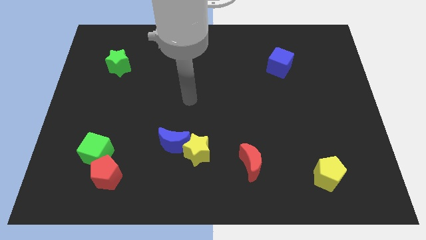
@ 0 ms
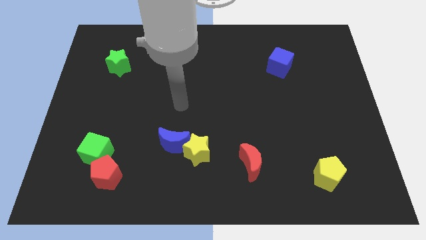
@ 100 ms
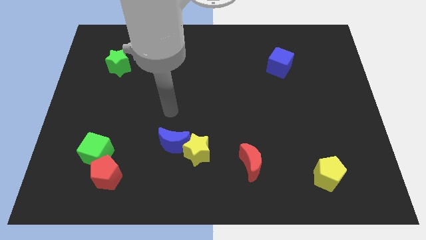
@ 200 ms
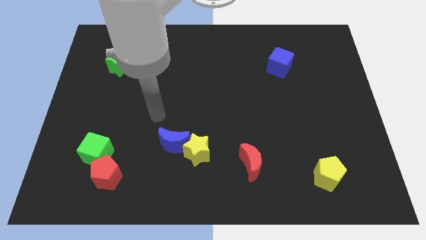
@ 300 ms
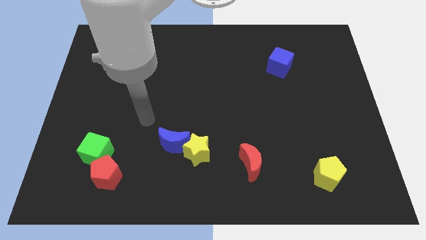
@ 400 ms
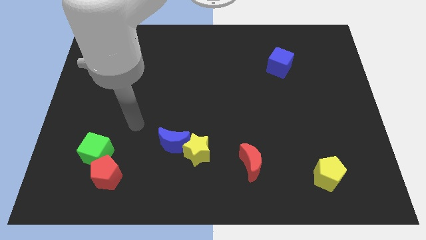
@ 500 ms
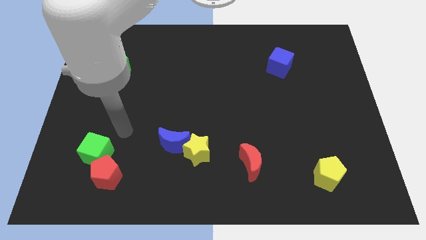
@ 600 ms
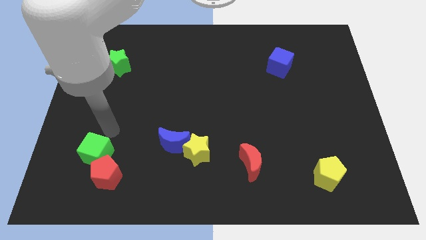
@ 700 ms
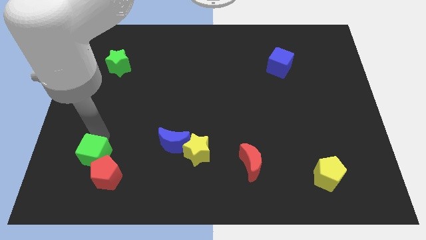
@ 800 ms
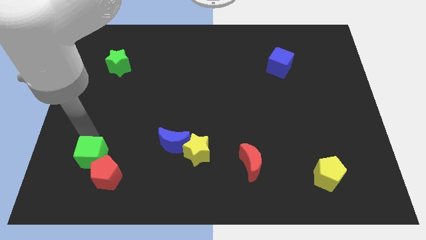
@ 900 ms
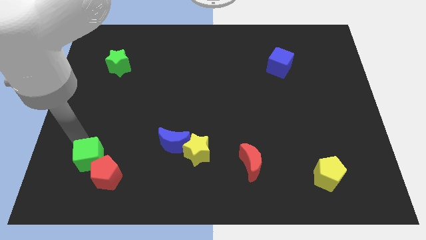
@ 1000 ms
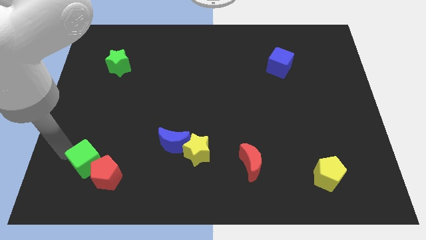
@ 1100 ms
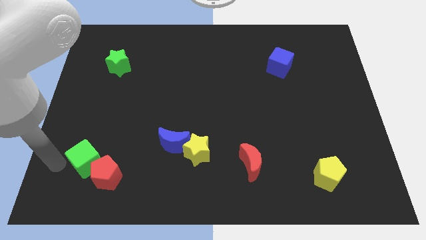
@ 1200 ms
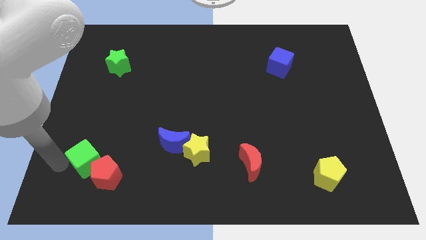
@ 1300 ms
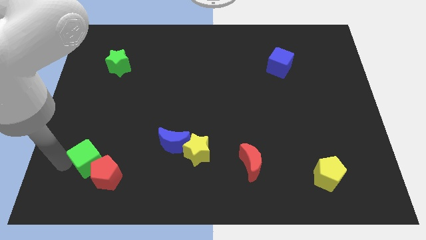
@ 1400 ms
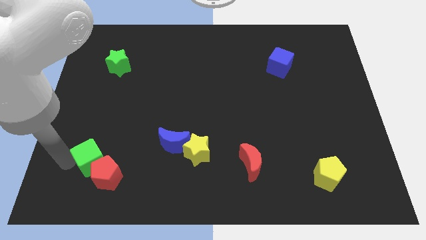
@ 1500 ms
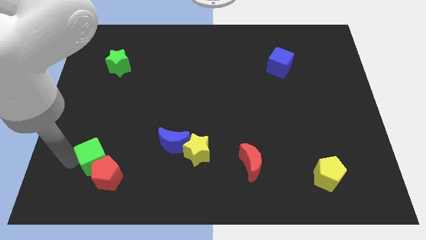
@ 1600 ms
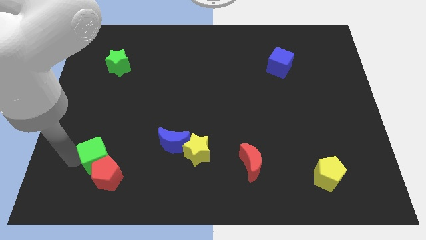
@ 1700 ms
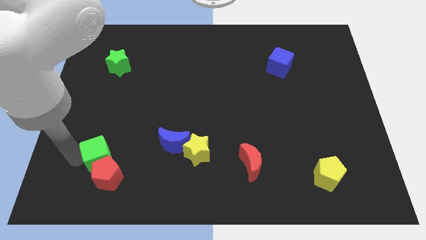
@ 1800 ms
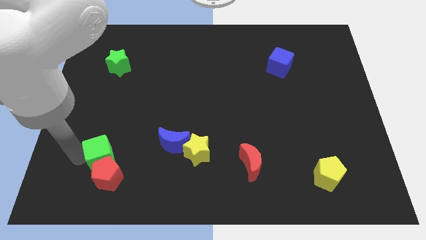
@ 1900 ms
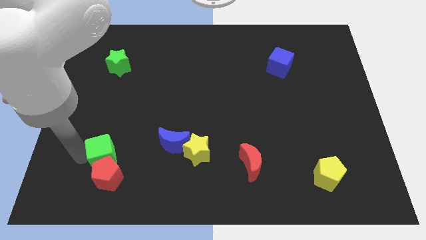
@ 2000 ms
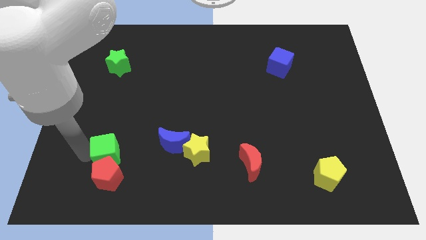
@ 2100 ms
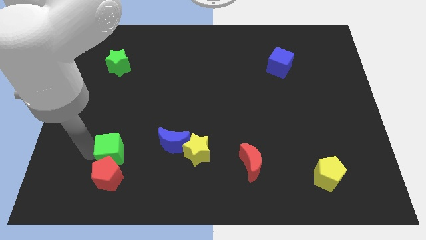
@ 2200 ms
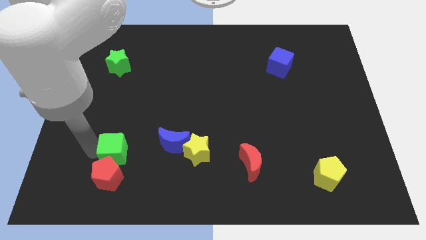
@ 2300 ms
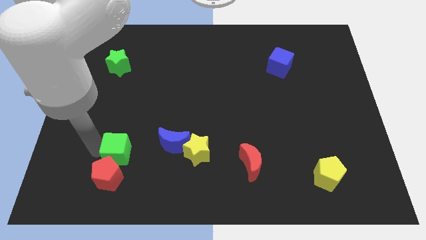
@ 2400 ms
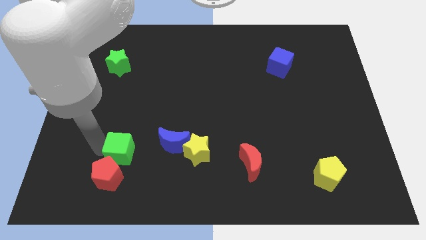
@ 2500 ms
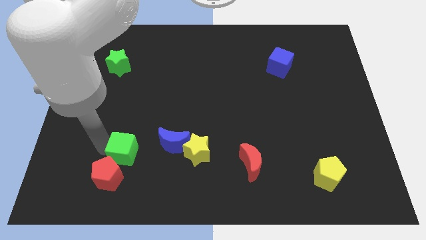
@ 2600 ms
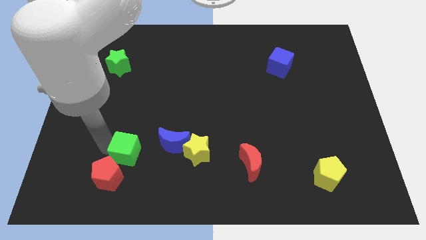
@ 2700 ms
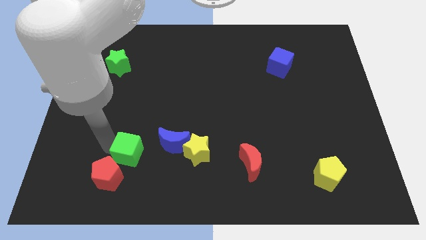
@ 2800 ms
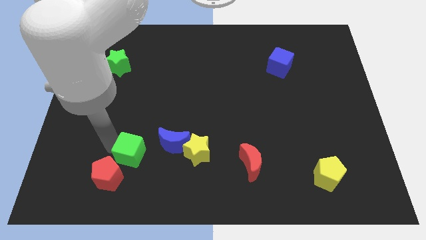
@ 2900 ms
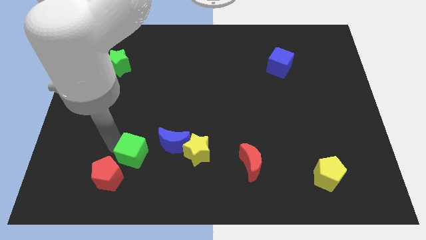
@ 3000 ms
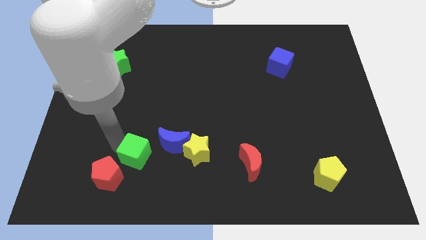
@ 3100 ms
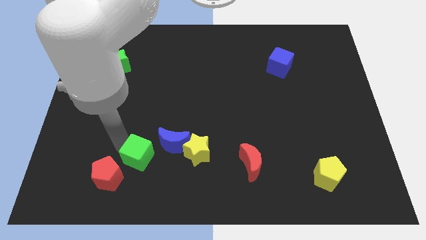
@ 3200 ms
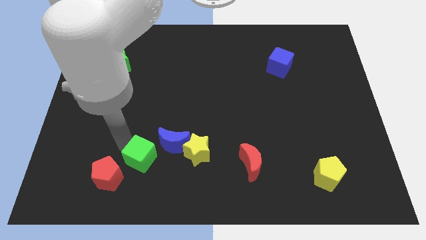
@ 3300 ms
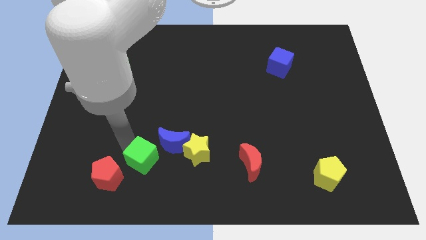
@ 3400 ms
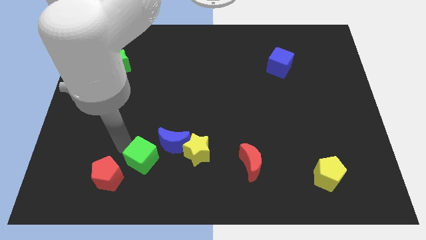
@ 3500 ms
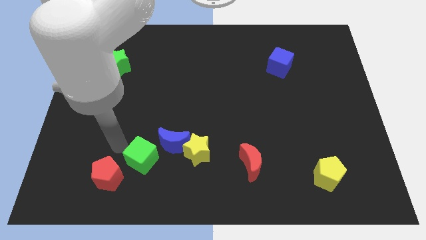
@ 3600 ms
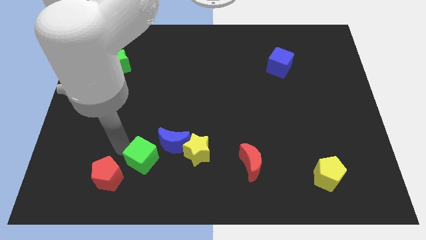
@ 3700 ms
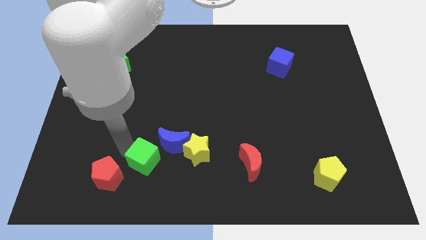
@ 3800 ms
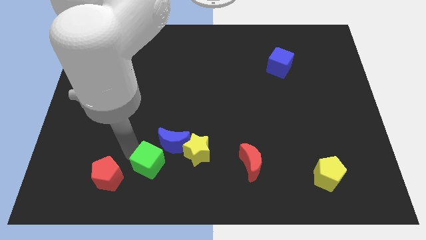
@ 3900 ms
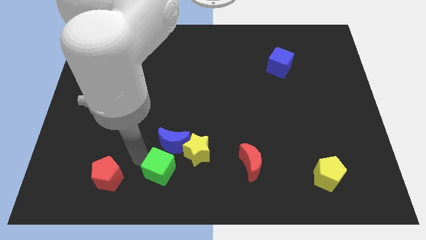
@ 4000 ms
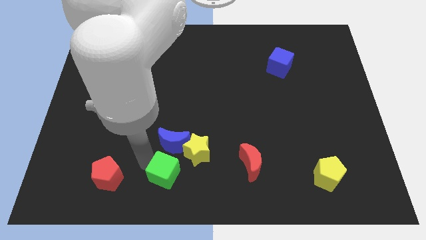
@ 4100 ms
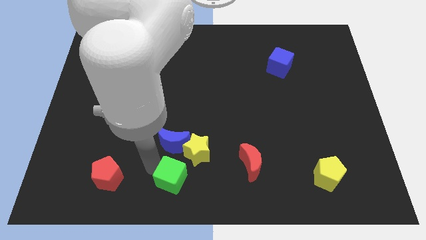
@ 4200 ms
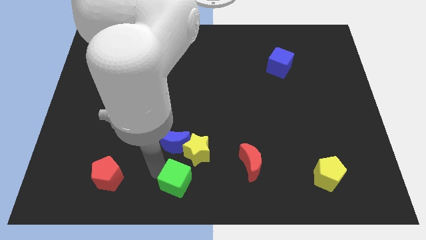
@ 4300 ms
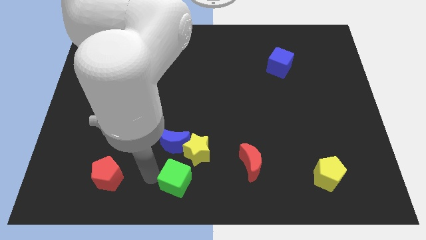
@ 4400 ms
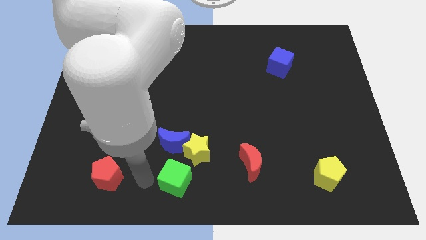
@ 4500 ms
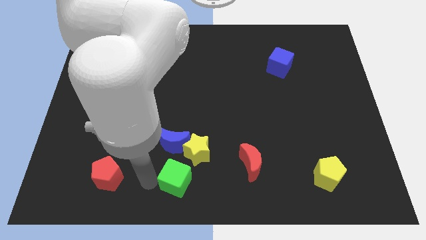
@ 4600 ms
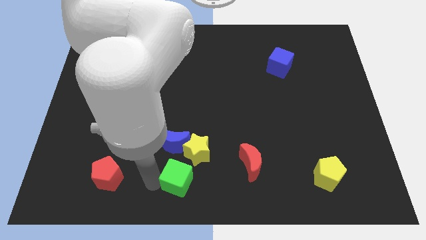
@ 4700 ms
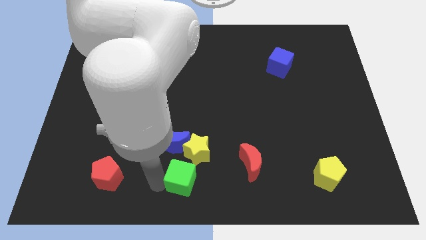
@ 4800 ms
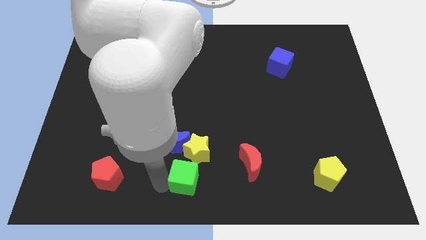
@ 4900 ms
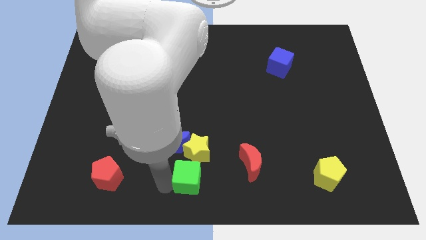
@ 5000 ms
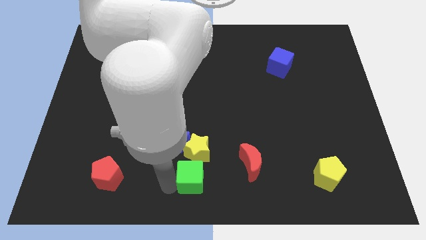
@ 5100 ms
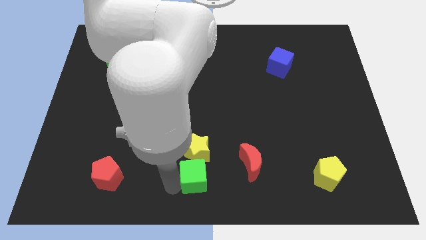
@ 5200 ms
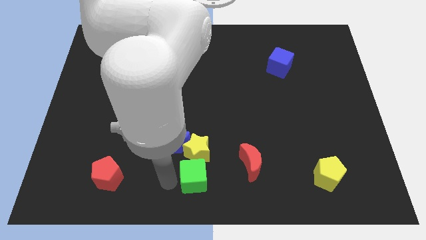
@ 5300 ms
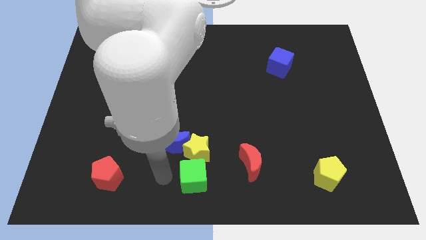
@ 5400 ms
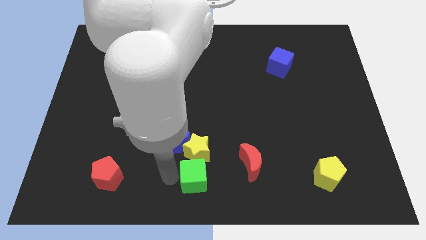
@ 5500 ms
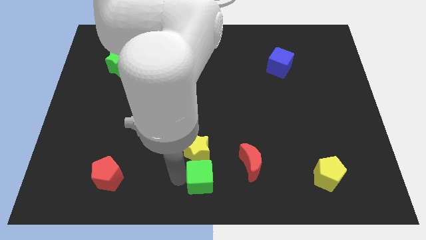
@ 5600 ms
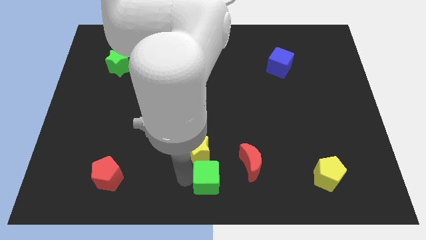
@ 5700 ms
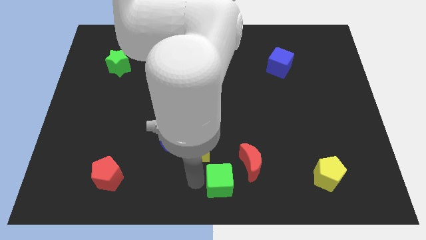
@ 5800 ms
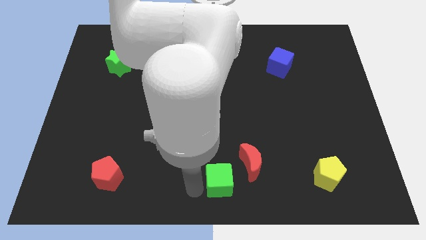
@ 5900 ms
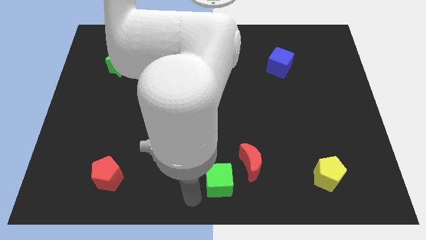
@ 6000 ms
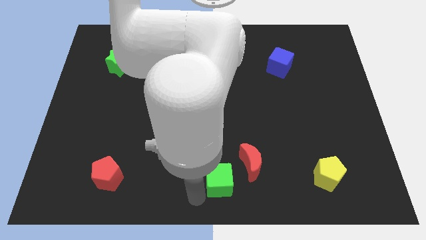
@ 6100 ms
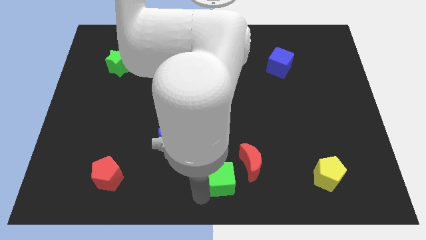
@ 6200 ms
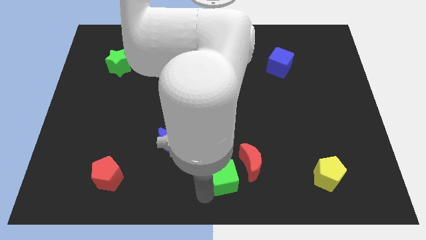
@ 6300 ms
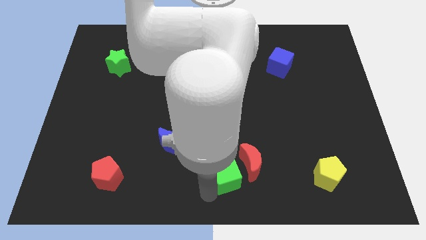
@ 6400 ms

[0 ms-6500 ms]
put the green cube close to the red moon
